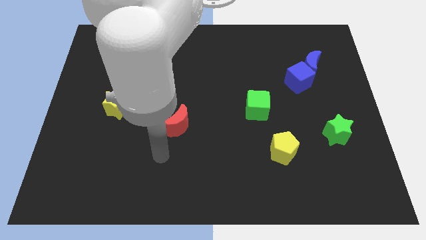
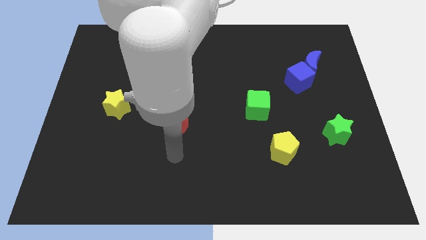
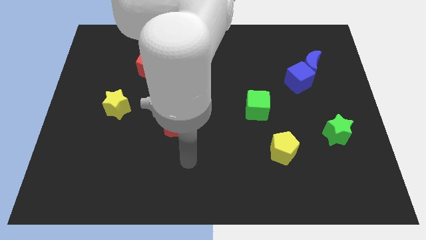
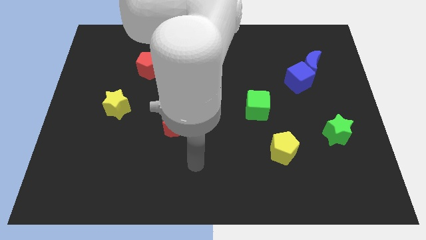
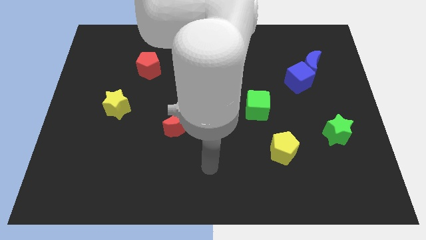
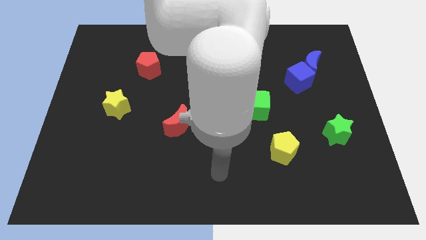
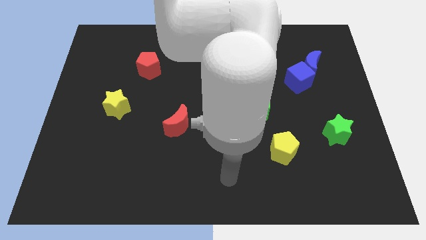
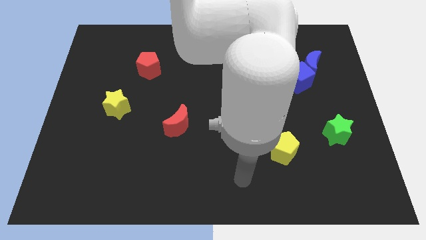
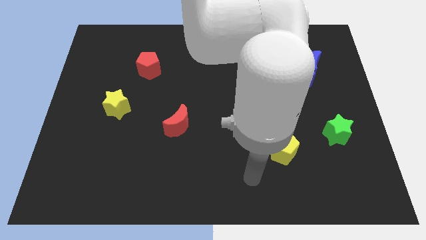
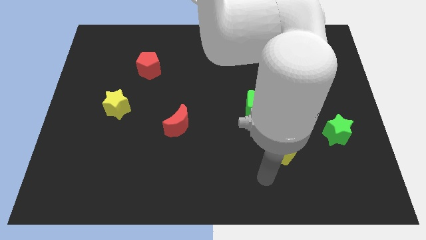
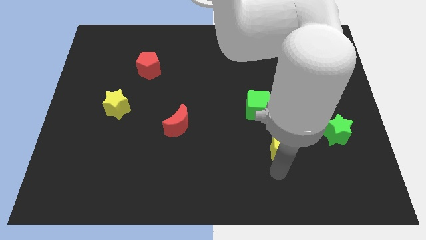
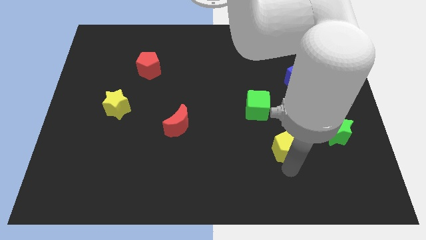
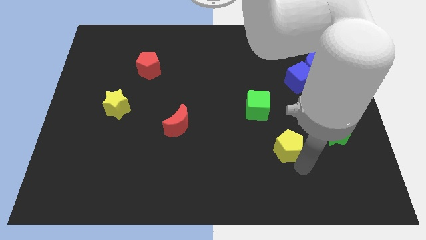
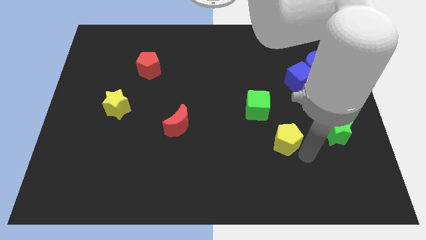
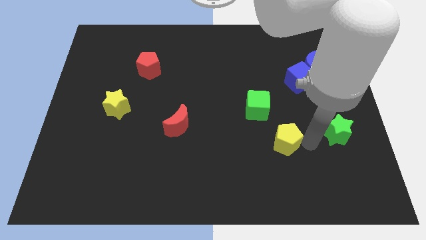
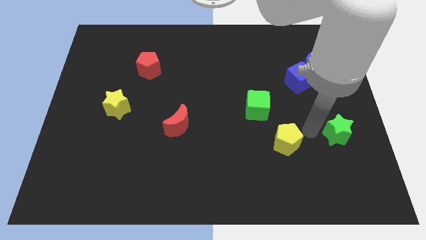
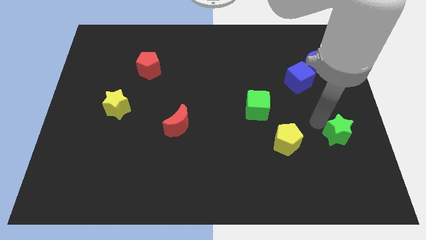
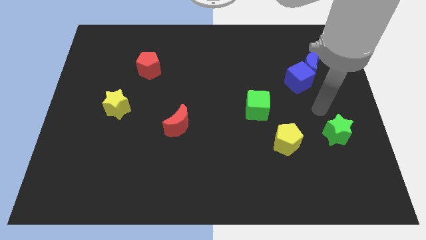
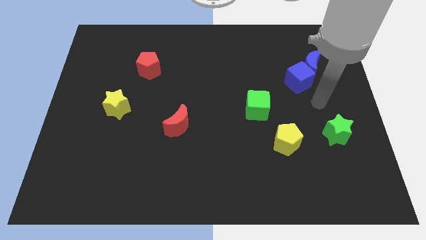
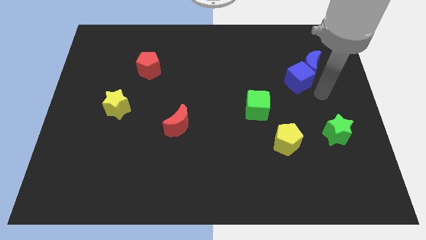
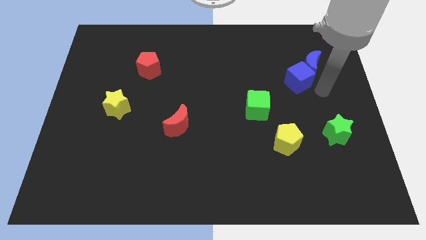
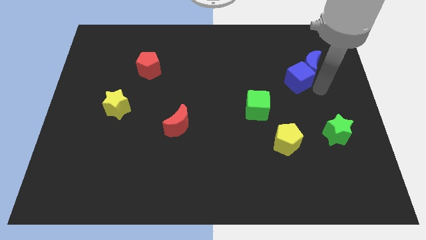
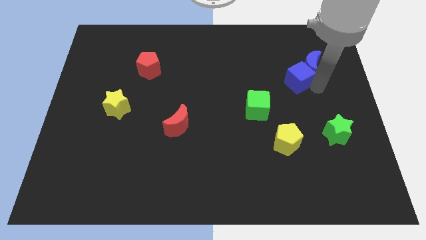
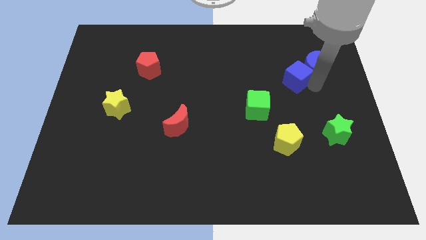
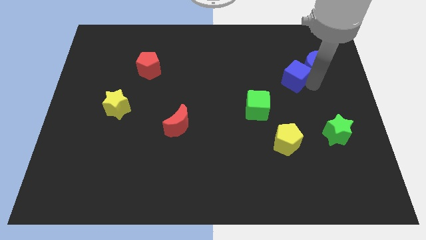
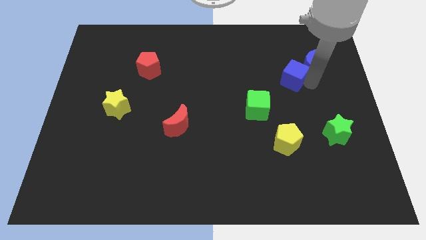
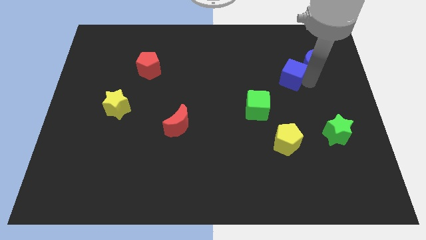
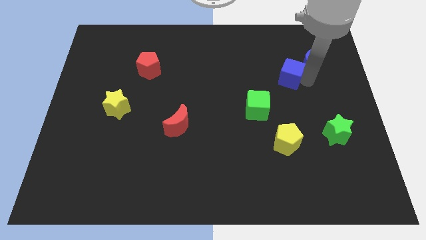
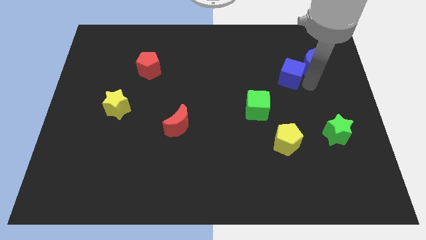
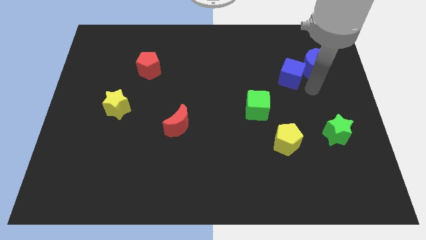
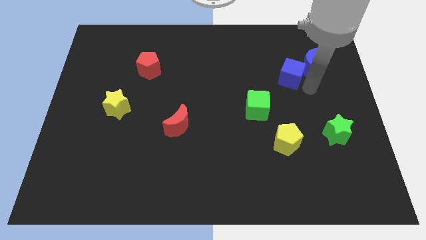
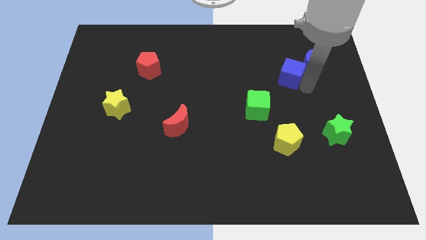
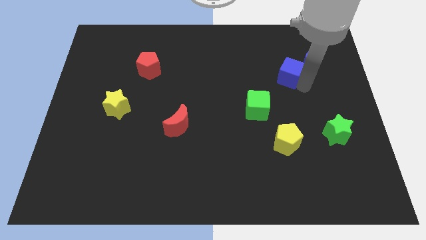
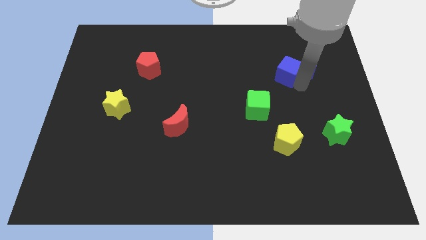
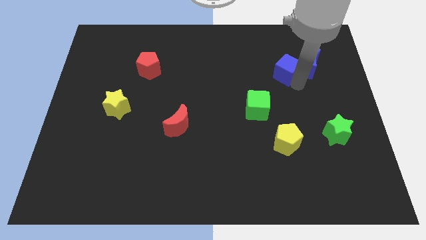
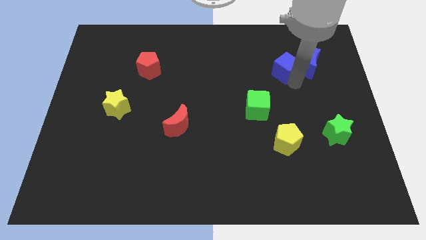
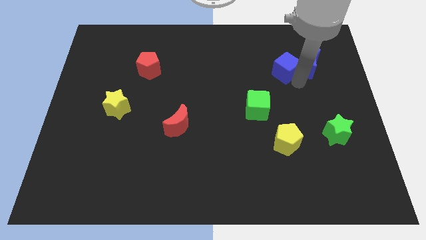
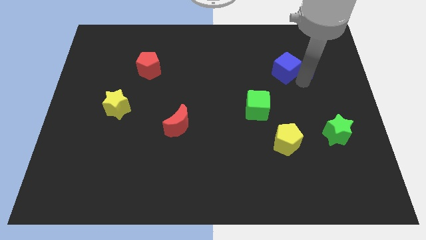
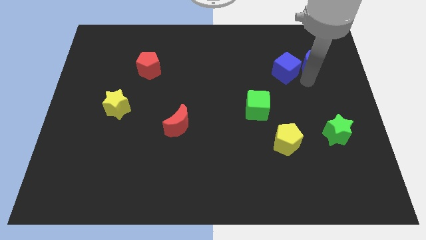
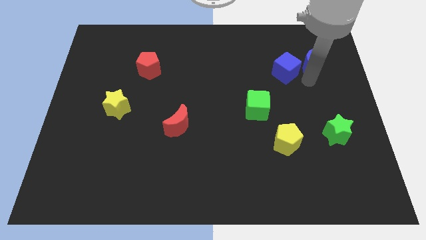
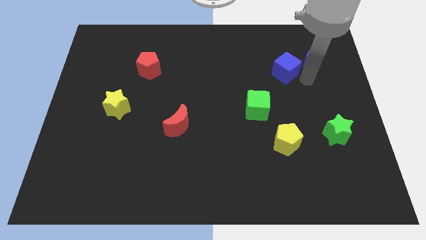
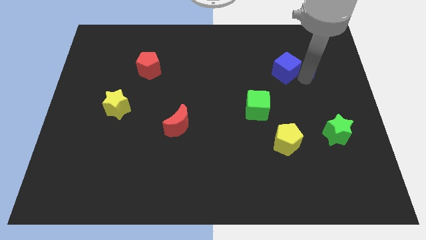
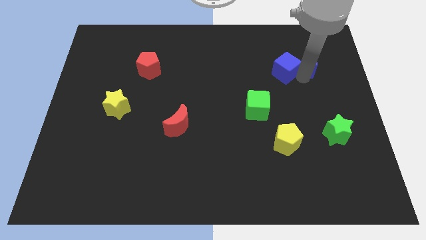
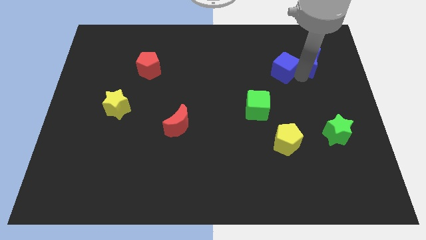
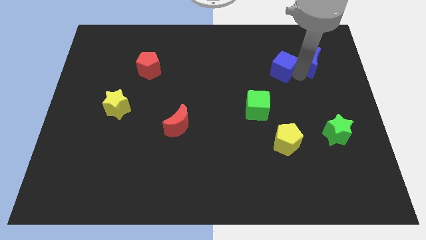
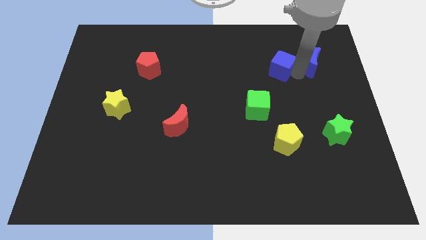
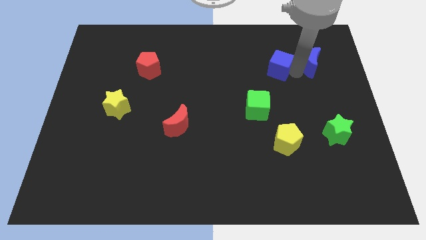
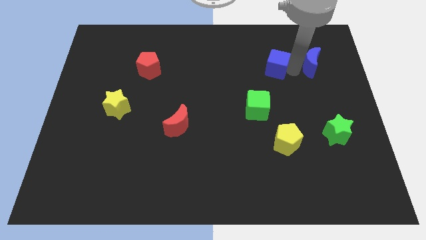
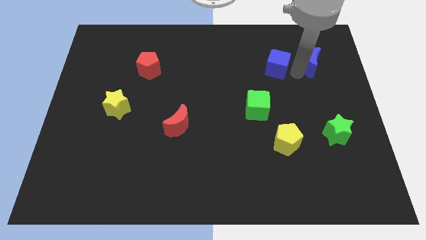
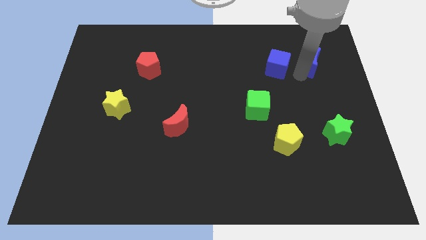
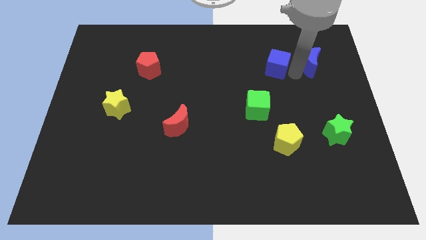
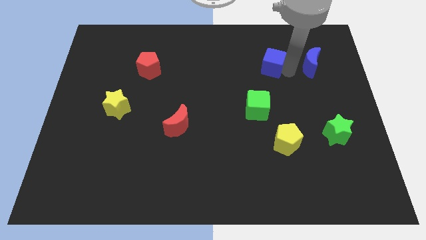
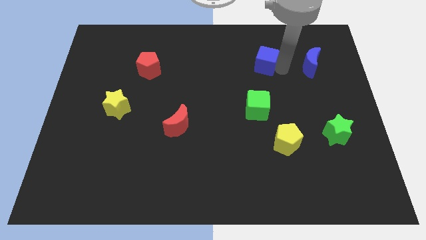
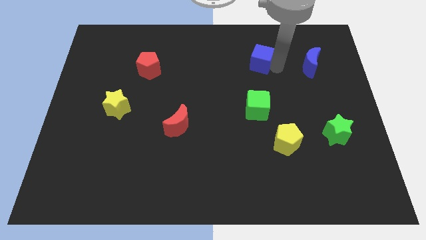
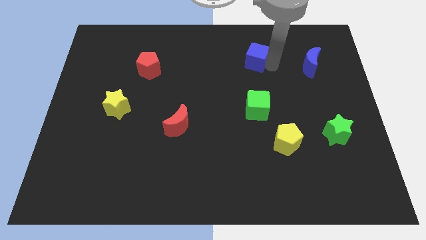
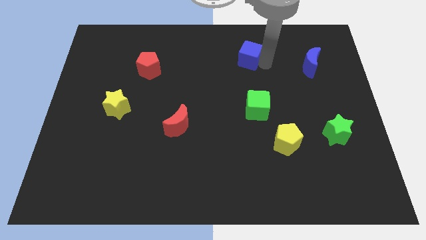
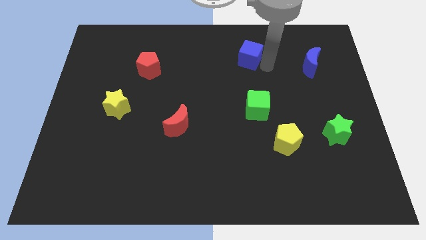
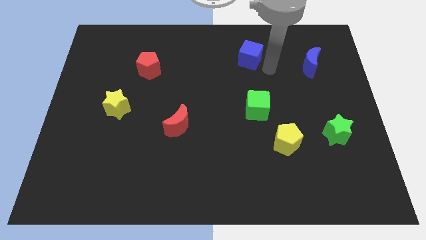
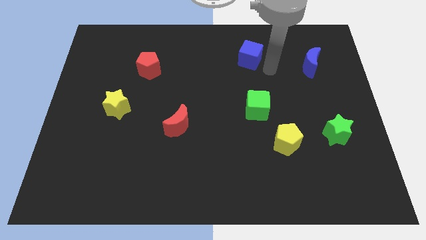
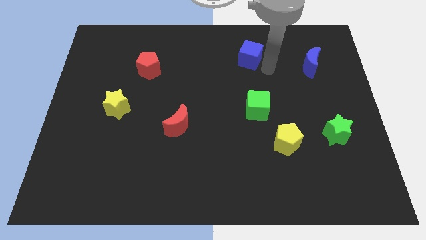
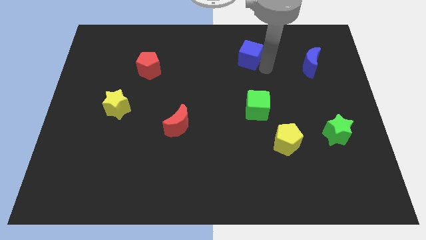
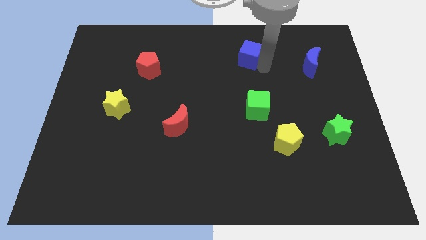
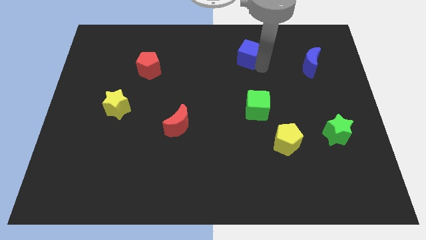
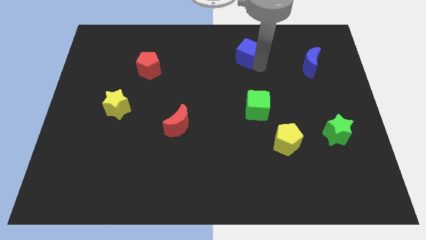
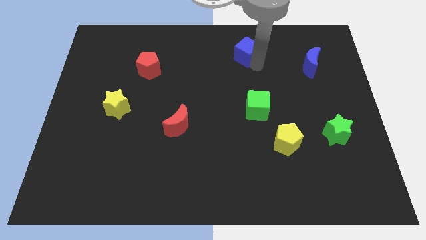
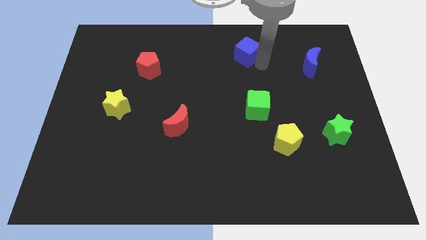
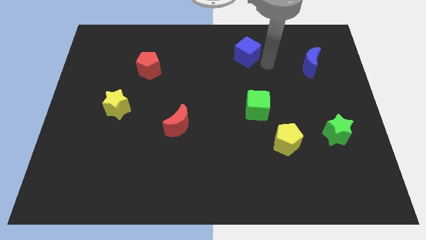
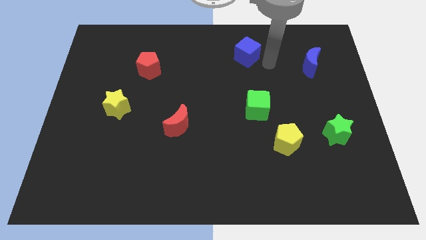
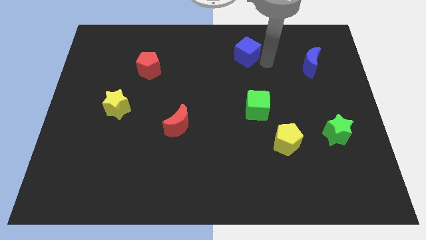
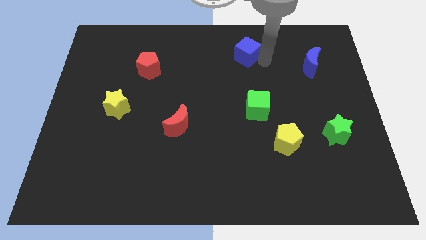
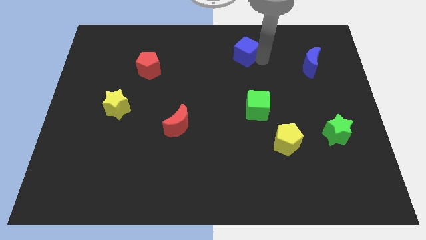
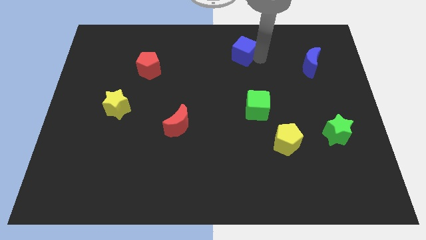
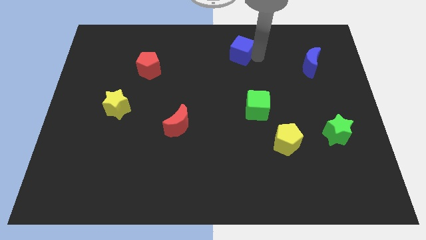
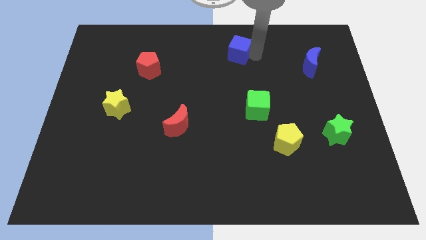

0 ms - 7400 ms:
push the blue cube to the top
